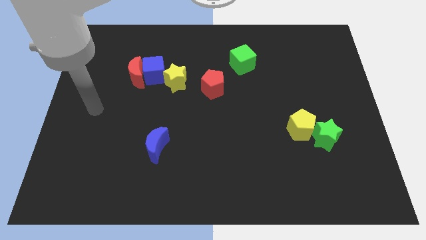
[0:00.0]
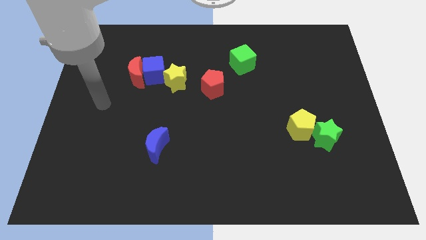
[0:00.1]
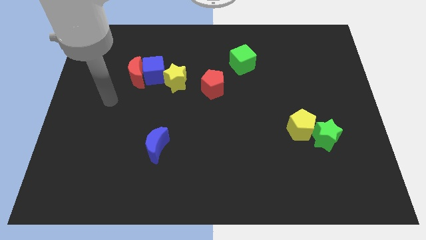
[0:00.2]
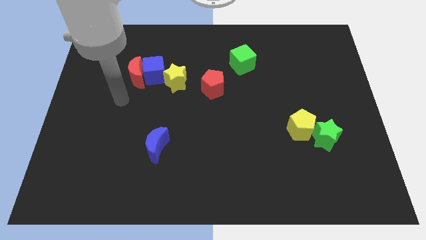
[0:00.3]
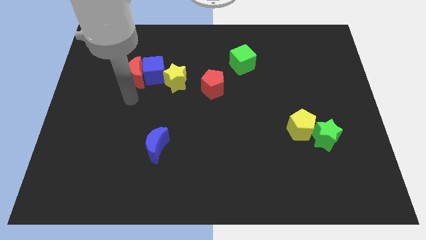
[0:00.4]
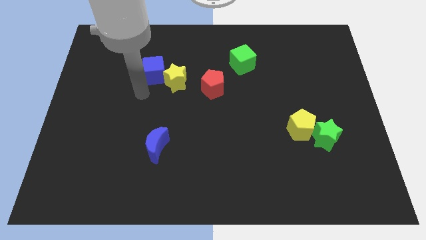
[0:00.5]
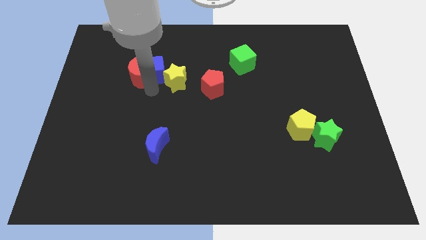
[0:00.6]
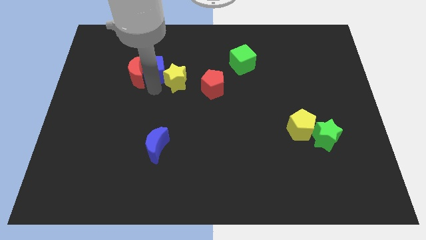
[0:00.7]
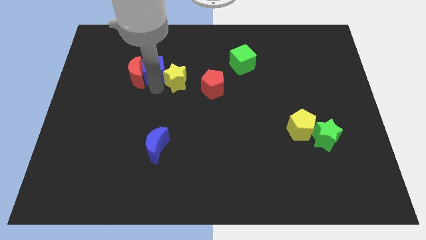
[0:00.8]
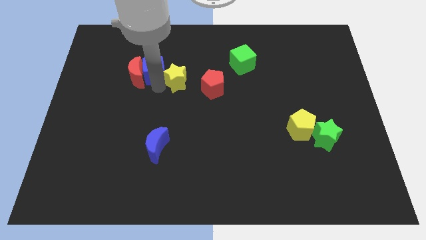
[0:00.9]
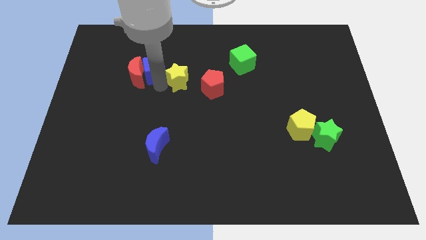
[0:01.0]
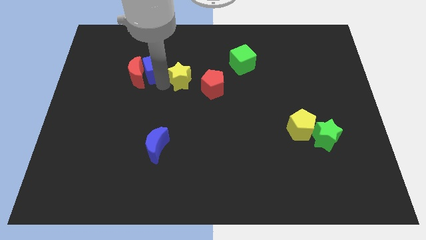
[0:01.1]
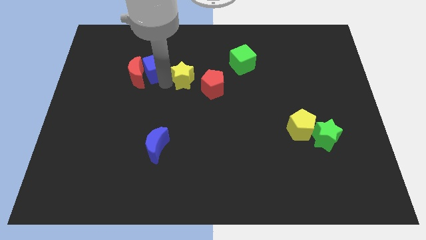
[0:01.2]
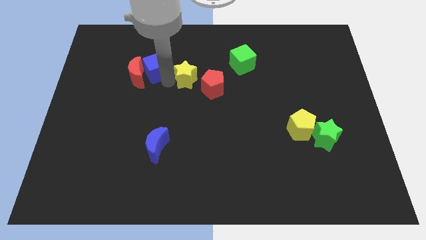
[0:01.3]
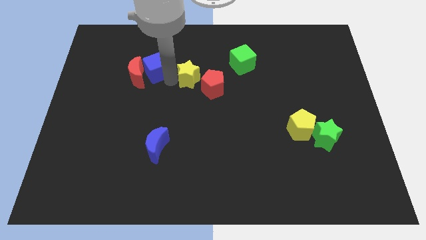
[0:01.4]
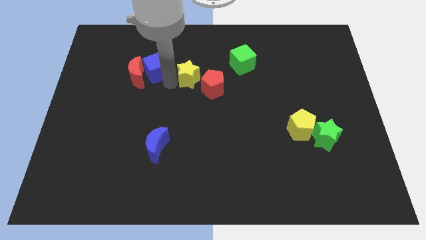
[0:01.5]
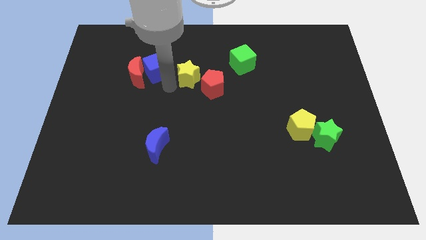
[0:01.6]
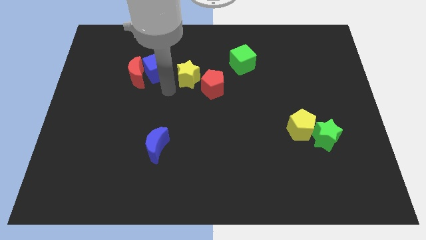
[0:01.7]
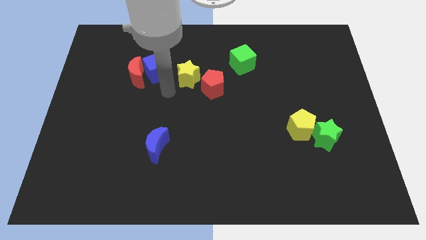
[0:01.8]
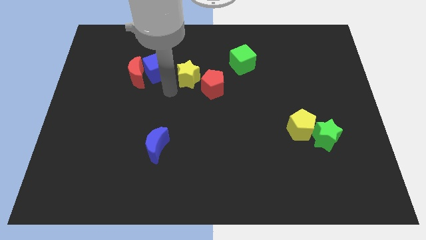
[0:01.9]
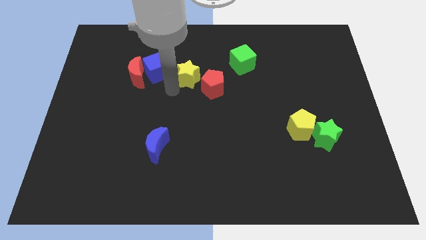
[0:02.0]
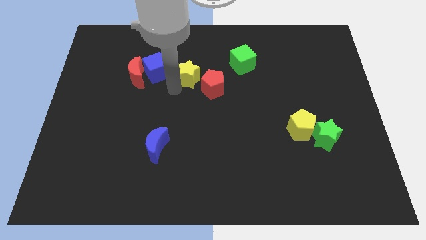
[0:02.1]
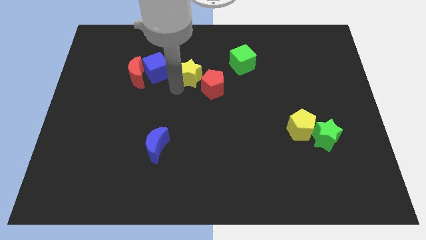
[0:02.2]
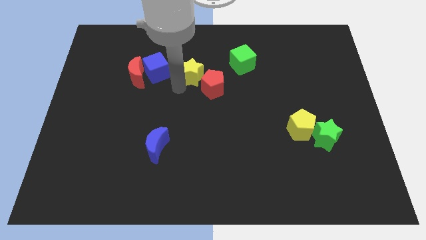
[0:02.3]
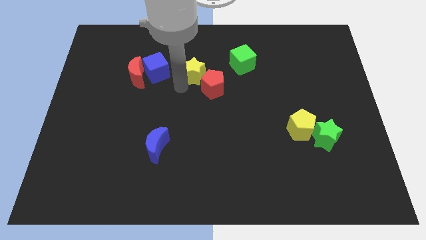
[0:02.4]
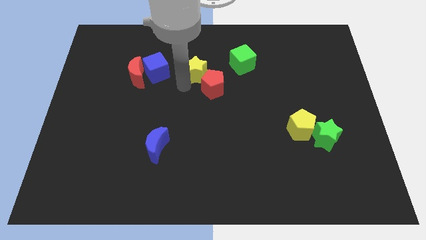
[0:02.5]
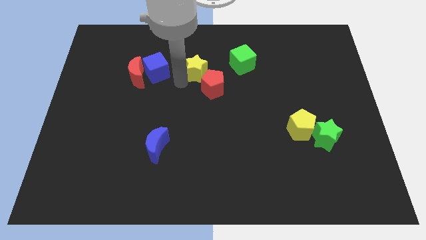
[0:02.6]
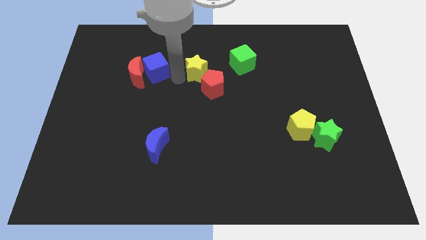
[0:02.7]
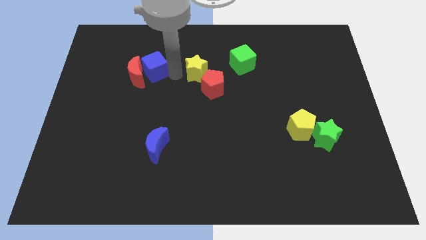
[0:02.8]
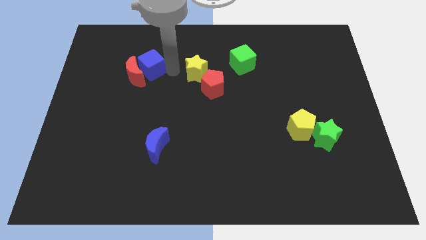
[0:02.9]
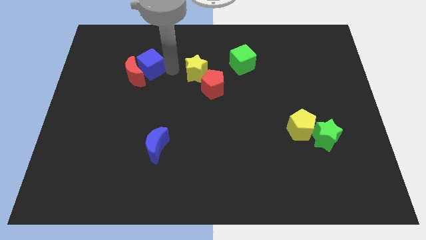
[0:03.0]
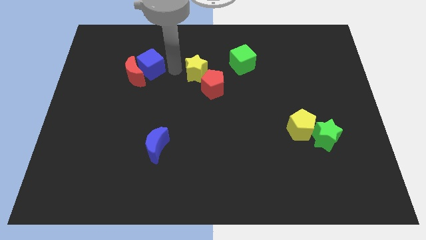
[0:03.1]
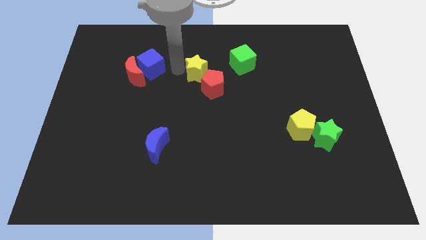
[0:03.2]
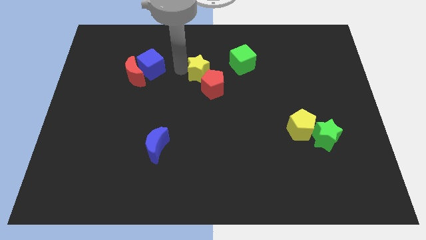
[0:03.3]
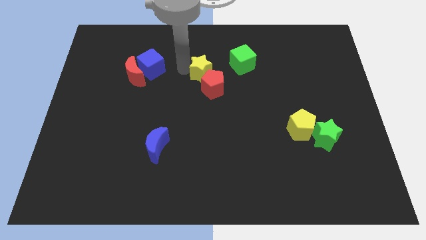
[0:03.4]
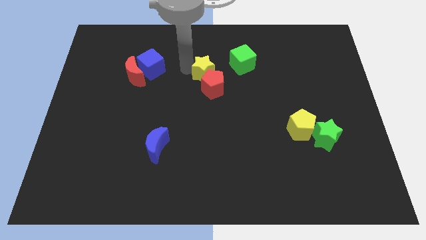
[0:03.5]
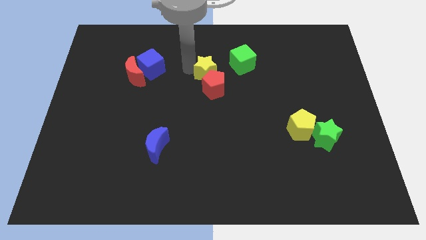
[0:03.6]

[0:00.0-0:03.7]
push the yellow star slightly right

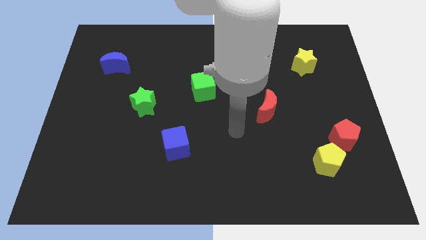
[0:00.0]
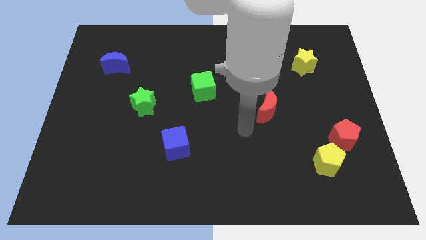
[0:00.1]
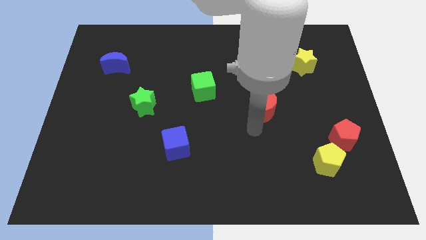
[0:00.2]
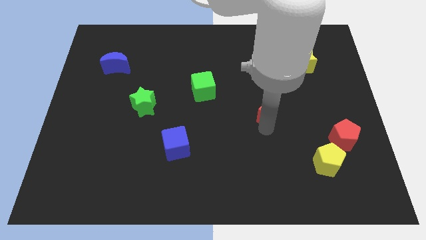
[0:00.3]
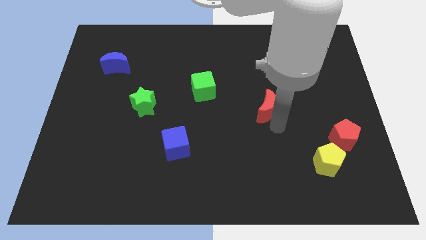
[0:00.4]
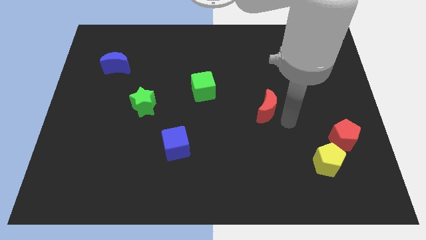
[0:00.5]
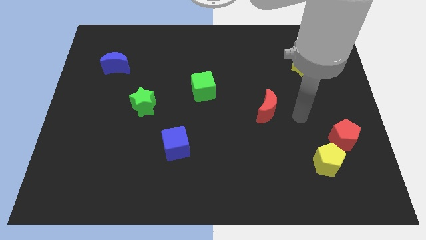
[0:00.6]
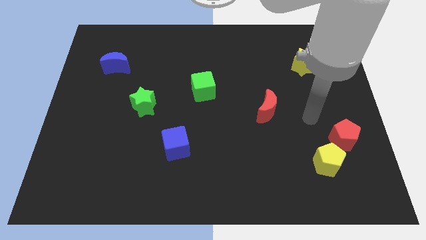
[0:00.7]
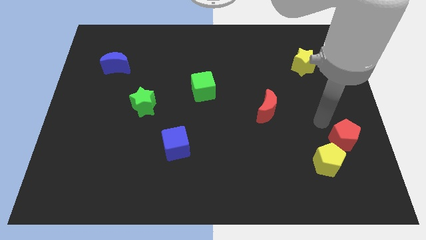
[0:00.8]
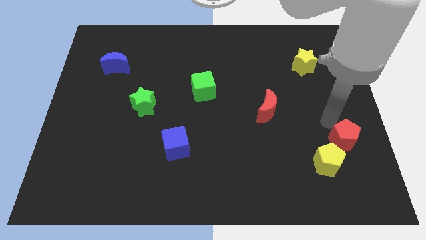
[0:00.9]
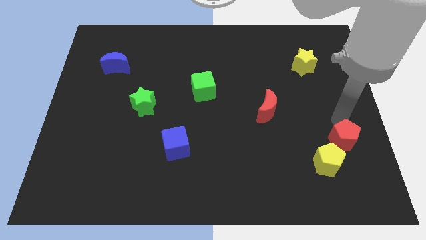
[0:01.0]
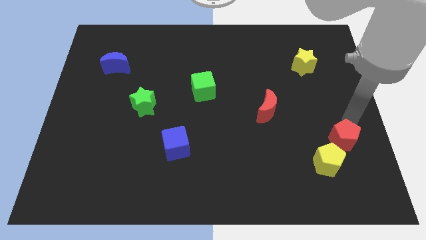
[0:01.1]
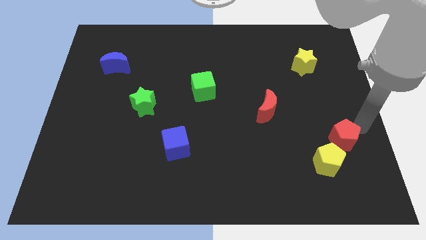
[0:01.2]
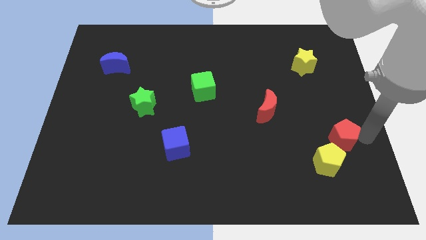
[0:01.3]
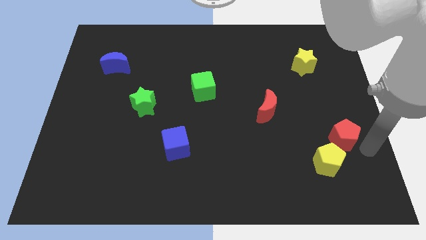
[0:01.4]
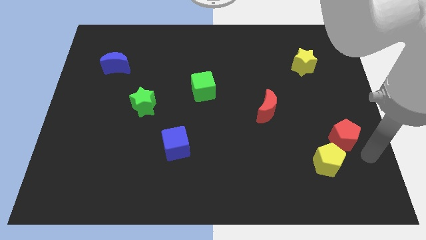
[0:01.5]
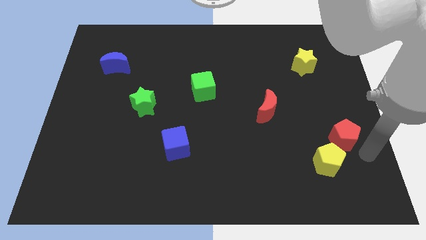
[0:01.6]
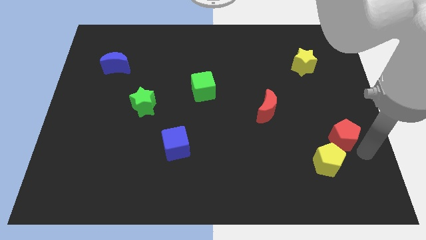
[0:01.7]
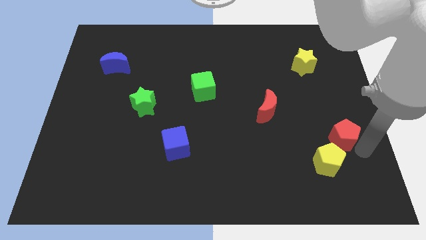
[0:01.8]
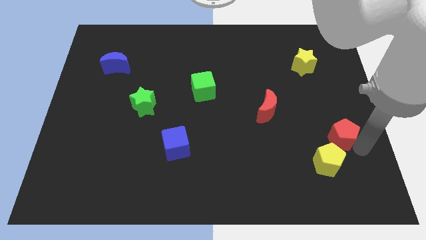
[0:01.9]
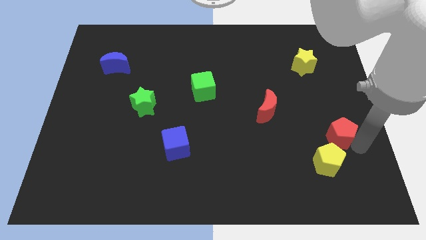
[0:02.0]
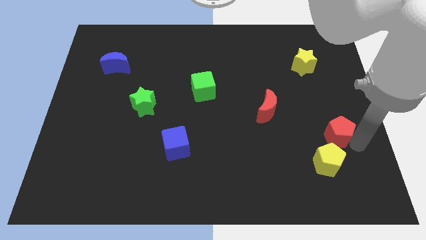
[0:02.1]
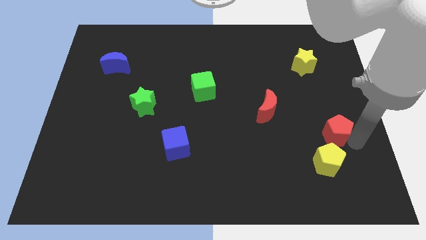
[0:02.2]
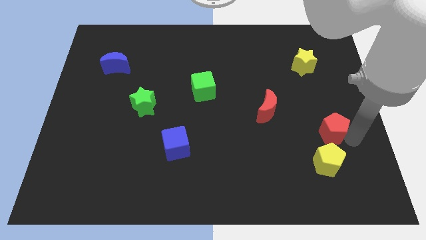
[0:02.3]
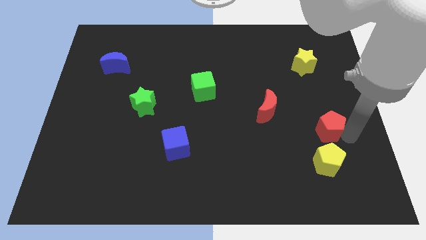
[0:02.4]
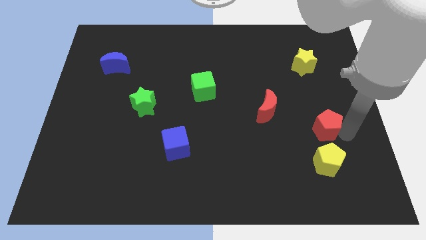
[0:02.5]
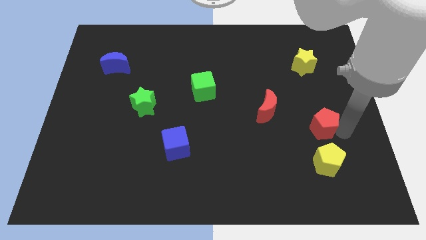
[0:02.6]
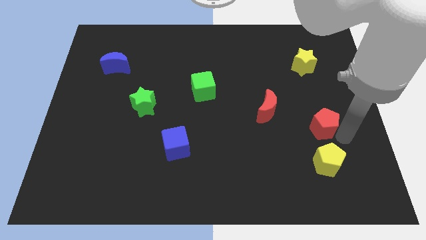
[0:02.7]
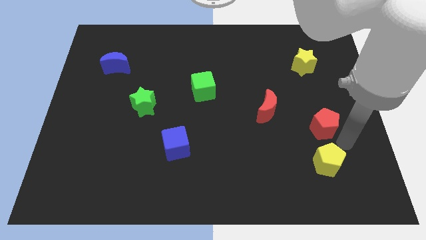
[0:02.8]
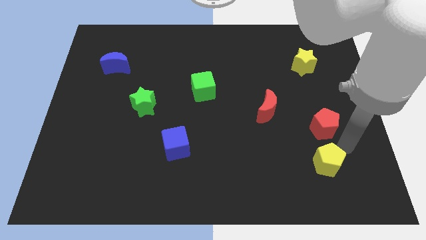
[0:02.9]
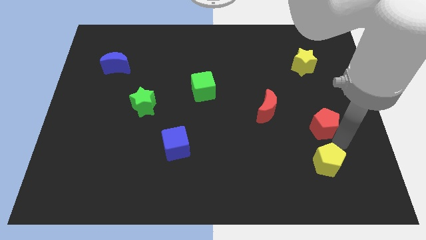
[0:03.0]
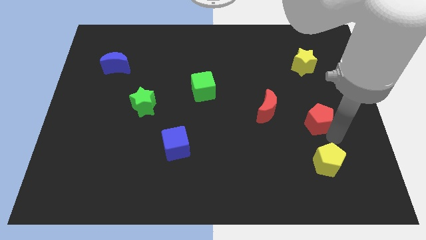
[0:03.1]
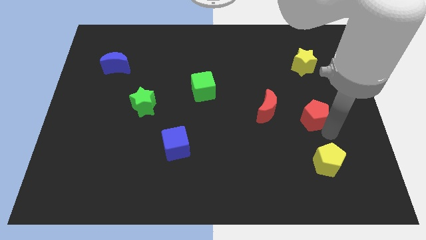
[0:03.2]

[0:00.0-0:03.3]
move the red pentagon upwards and to the left diagonally a little

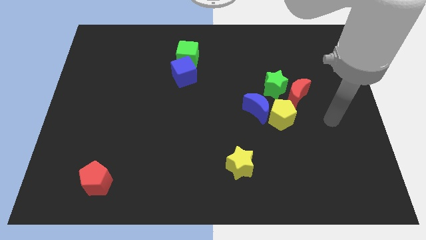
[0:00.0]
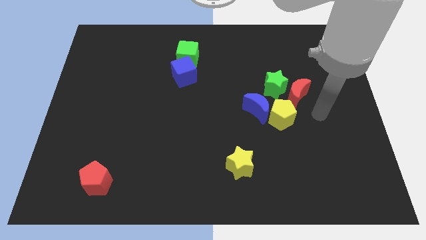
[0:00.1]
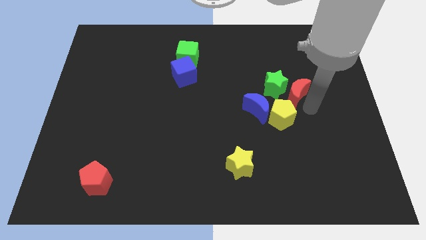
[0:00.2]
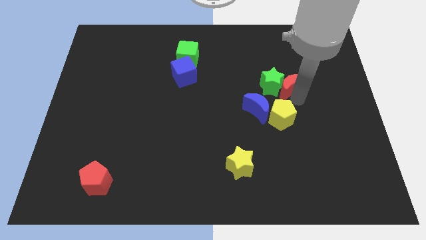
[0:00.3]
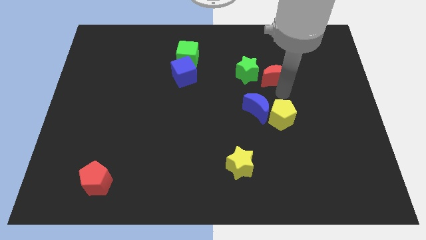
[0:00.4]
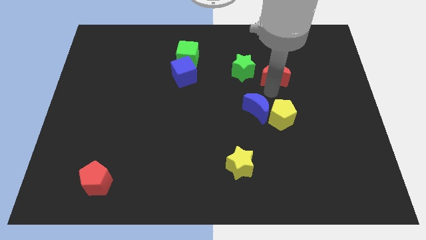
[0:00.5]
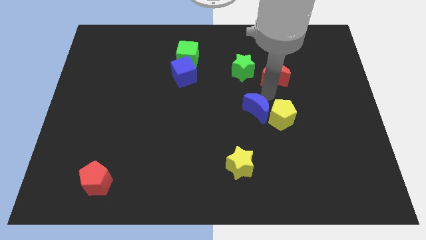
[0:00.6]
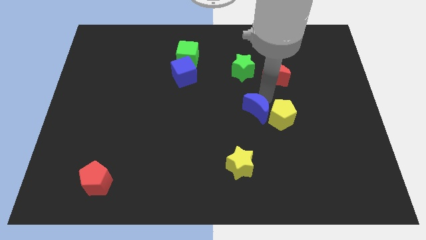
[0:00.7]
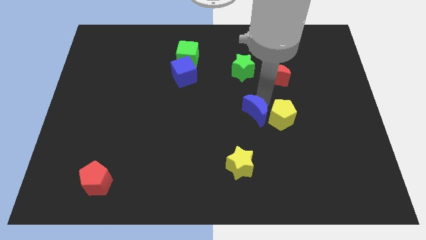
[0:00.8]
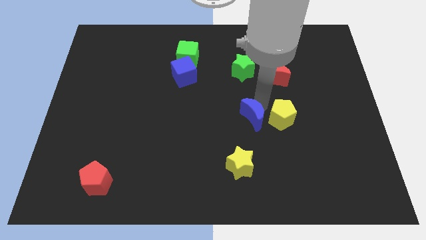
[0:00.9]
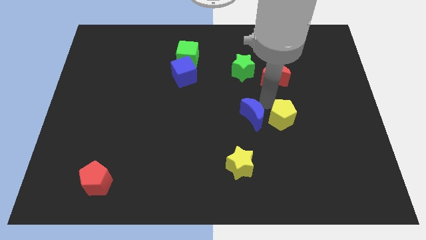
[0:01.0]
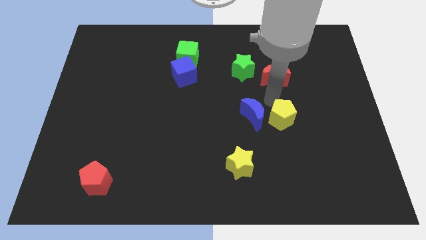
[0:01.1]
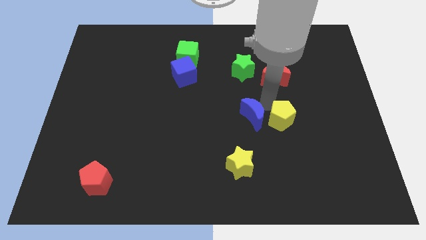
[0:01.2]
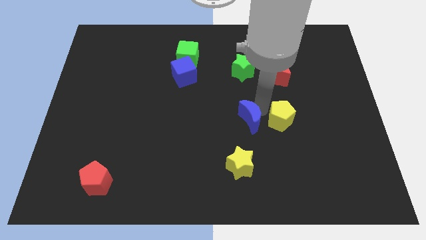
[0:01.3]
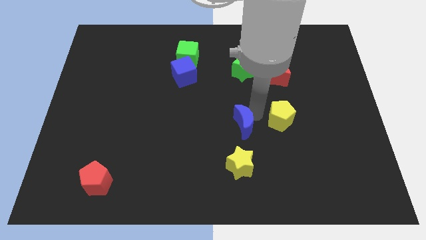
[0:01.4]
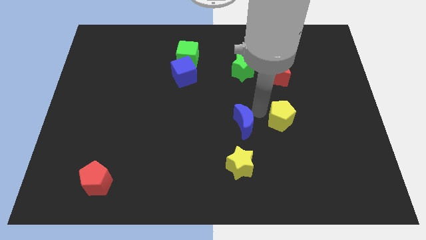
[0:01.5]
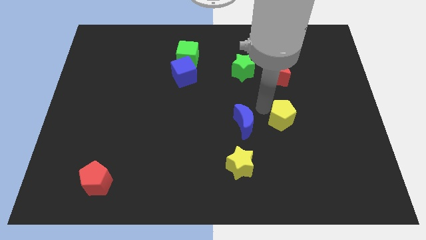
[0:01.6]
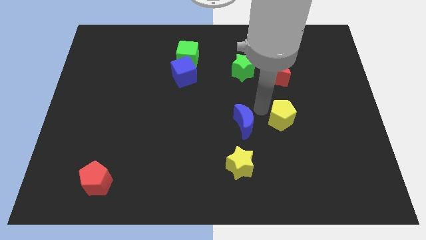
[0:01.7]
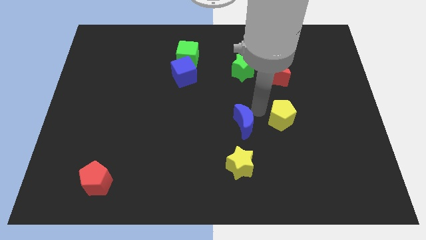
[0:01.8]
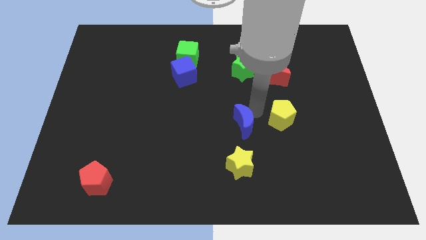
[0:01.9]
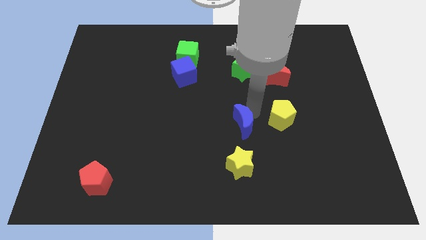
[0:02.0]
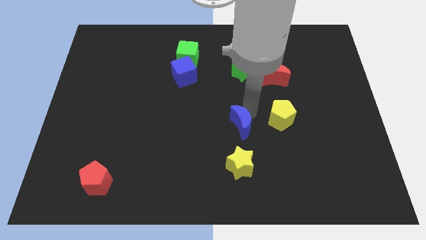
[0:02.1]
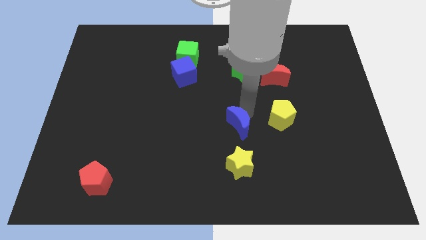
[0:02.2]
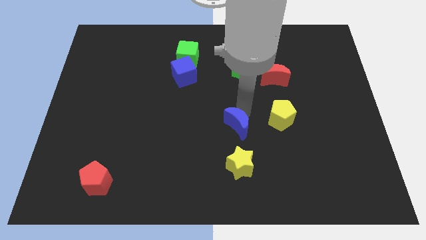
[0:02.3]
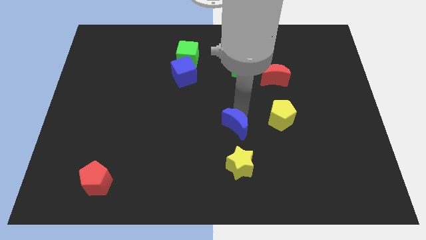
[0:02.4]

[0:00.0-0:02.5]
move the blue moon a little down and then left
